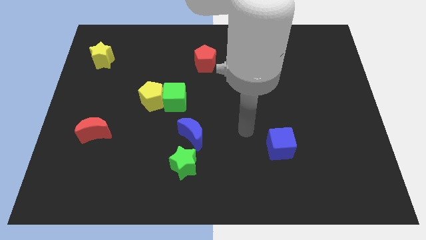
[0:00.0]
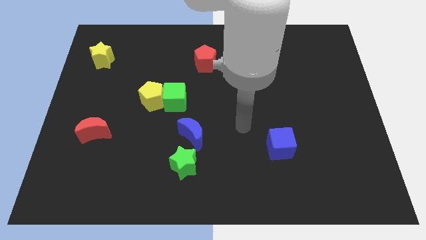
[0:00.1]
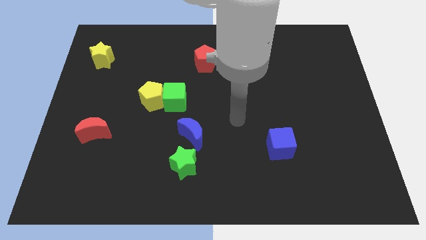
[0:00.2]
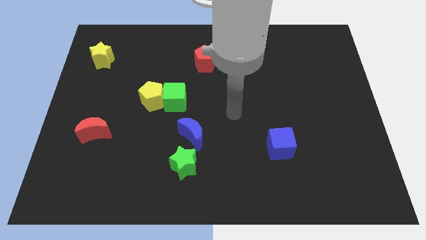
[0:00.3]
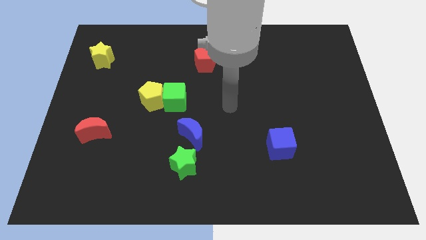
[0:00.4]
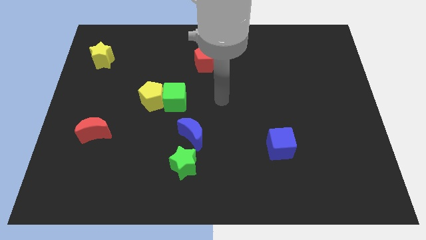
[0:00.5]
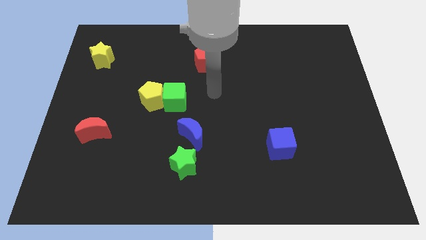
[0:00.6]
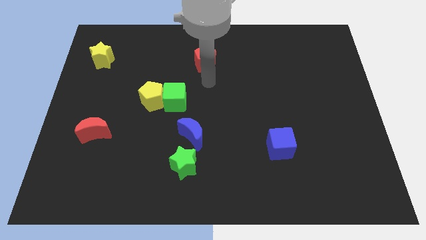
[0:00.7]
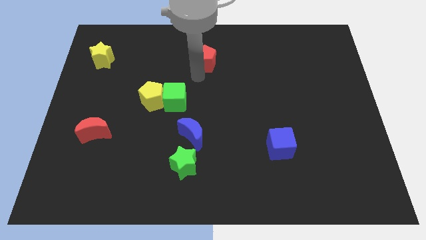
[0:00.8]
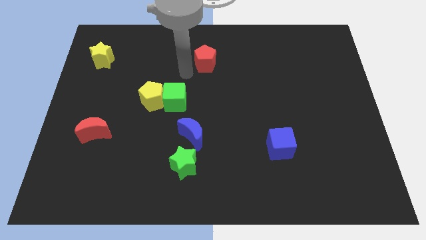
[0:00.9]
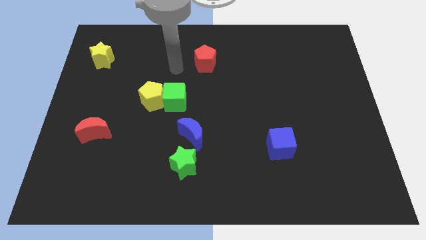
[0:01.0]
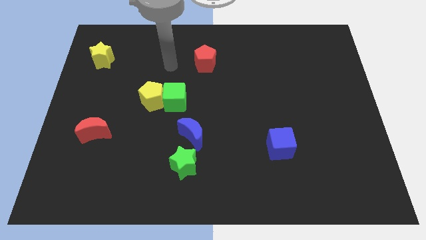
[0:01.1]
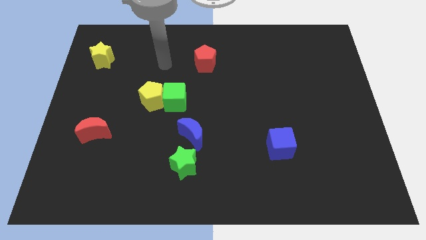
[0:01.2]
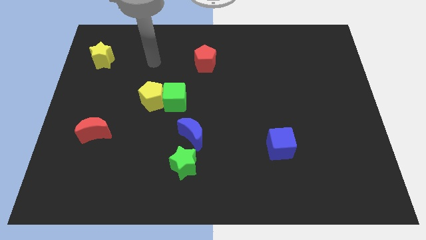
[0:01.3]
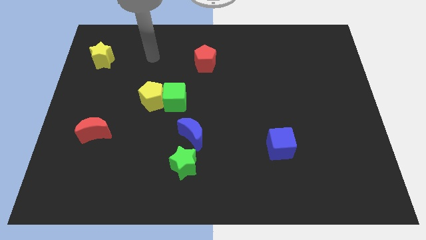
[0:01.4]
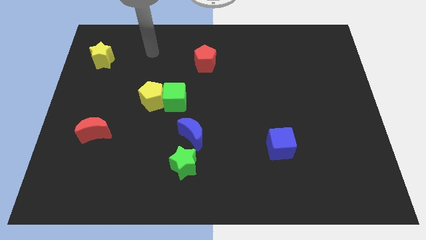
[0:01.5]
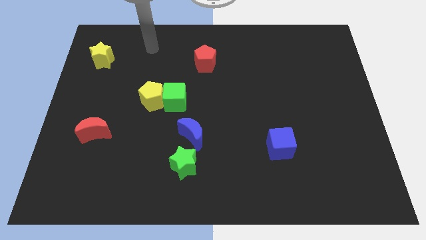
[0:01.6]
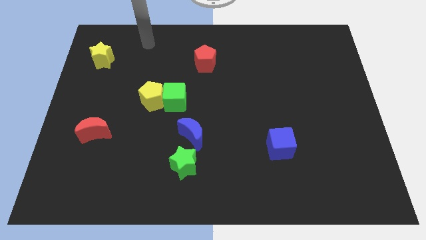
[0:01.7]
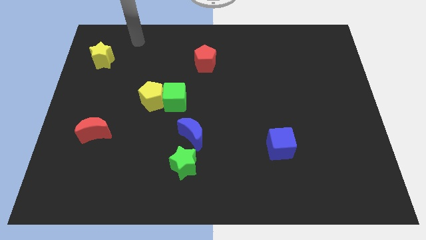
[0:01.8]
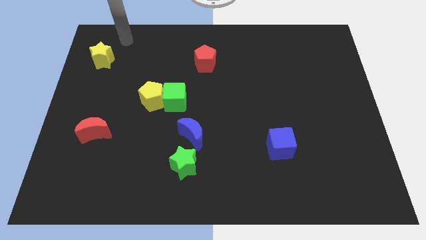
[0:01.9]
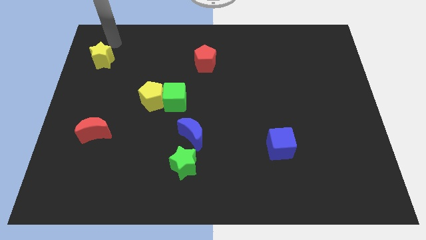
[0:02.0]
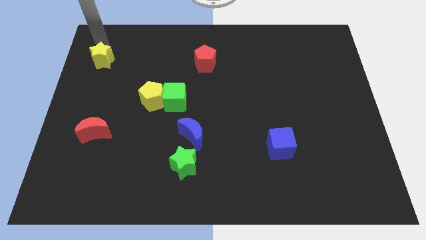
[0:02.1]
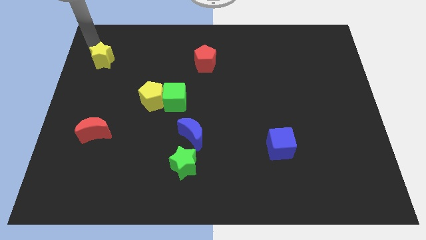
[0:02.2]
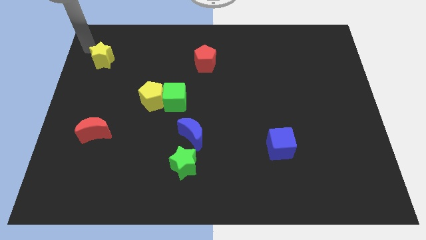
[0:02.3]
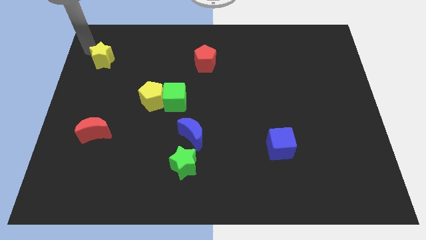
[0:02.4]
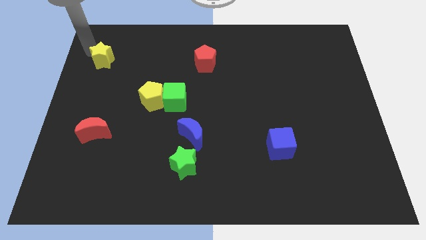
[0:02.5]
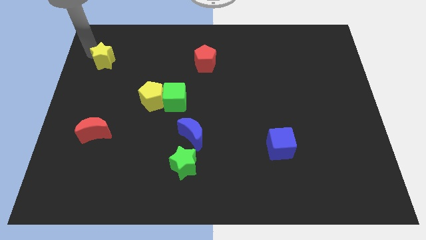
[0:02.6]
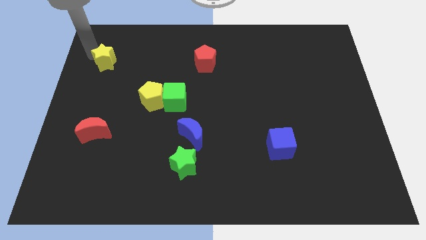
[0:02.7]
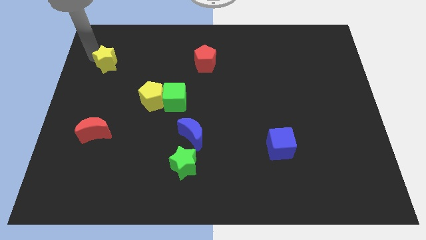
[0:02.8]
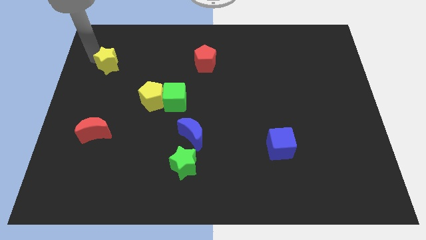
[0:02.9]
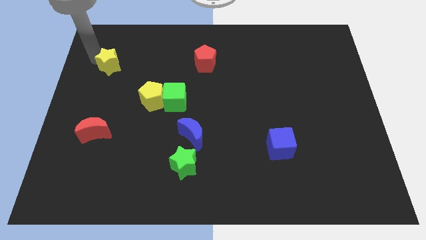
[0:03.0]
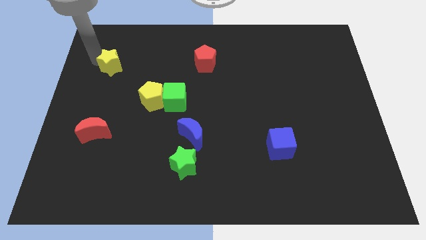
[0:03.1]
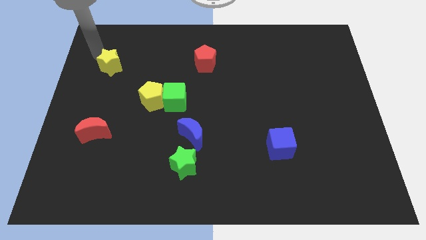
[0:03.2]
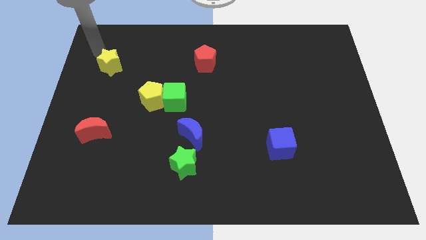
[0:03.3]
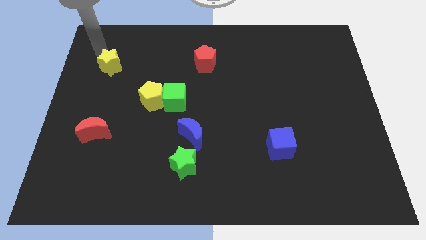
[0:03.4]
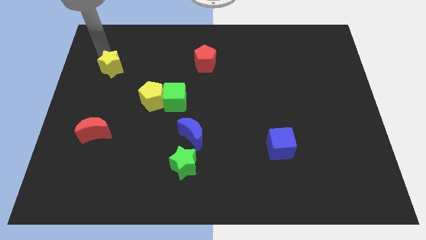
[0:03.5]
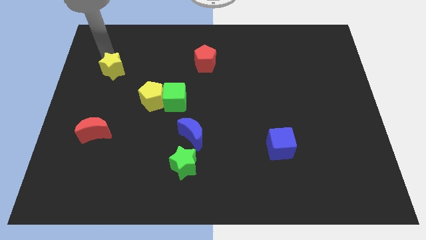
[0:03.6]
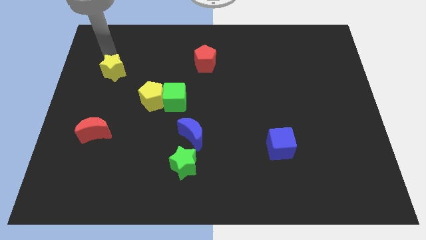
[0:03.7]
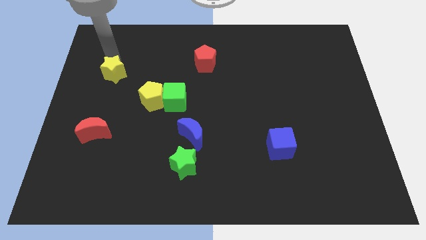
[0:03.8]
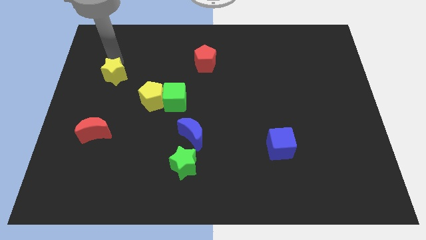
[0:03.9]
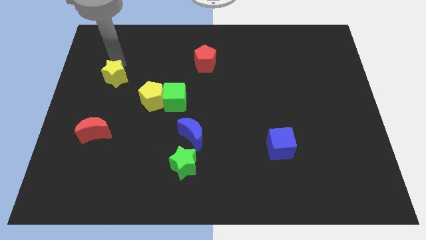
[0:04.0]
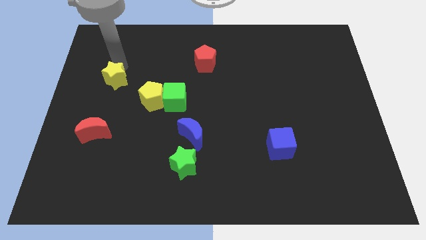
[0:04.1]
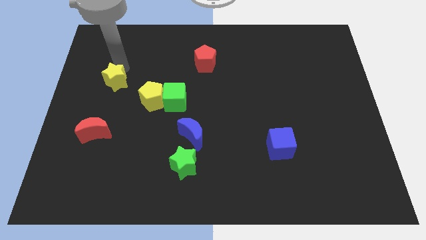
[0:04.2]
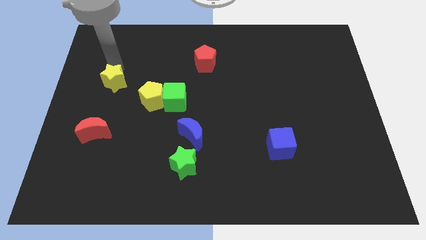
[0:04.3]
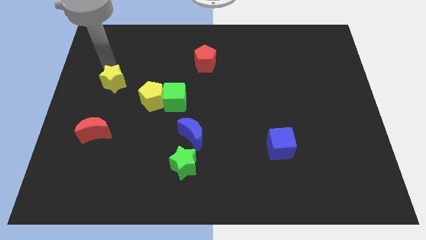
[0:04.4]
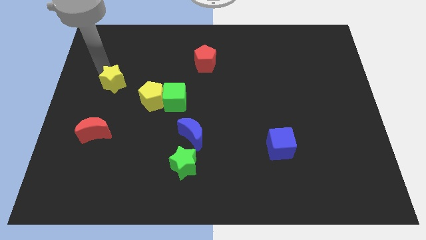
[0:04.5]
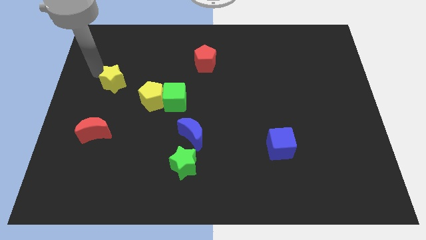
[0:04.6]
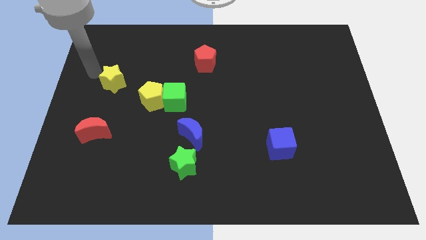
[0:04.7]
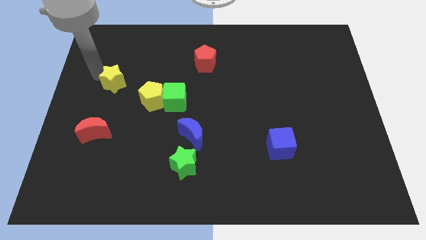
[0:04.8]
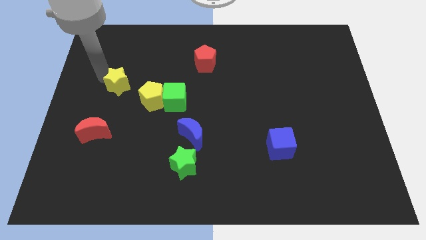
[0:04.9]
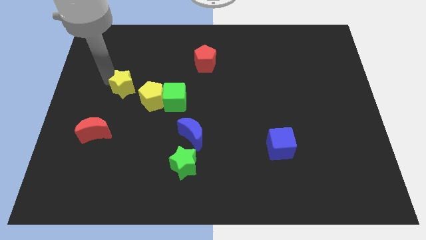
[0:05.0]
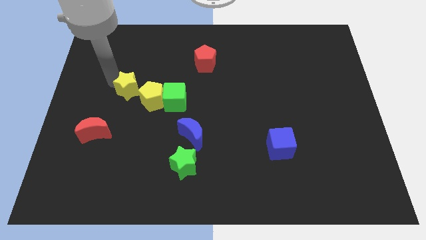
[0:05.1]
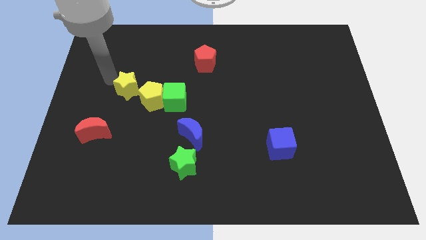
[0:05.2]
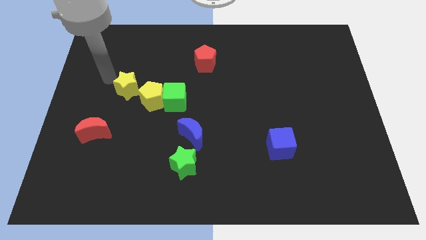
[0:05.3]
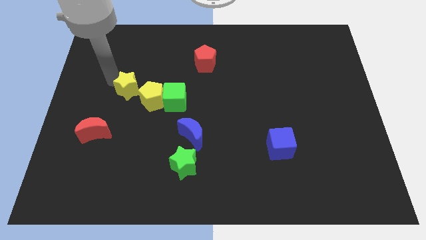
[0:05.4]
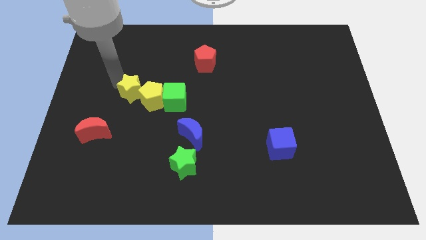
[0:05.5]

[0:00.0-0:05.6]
move the yellow star next to the yellow pentagon

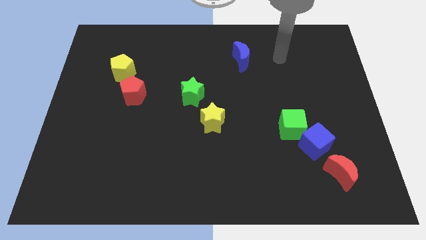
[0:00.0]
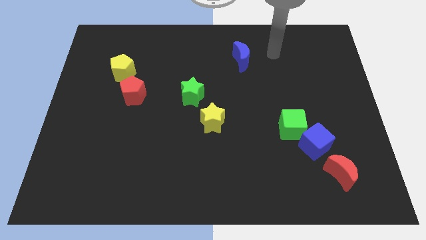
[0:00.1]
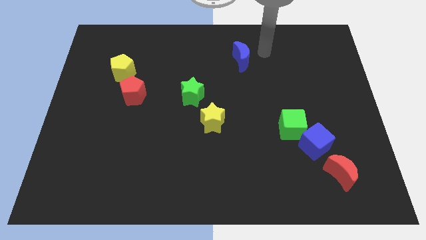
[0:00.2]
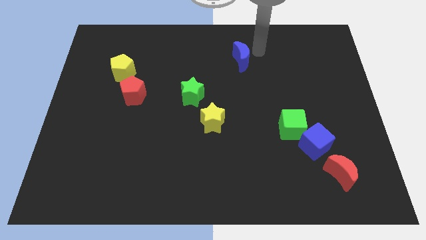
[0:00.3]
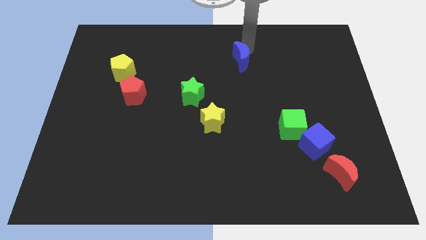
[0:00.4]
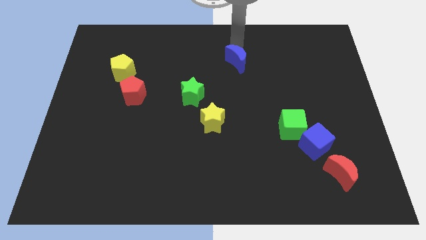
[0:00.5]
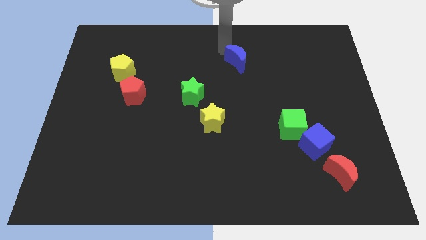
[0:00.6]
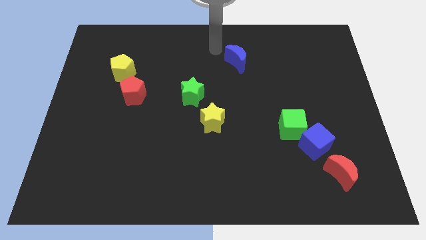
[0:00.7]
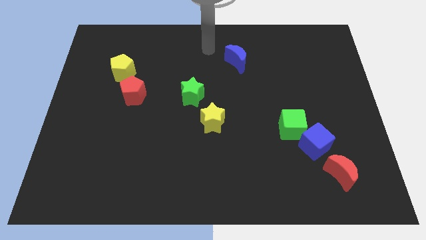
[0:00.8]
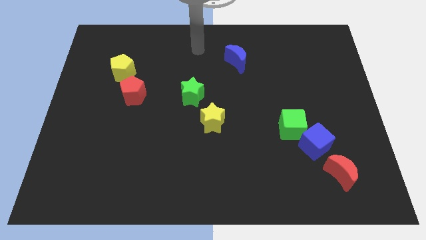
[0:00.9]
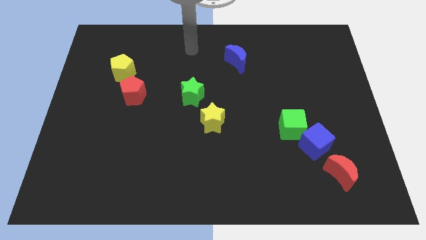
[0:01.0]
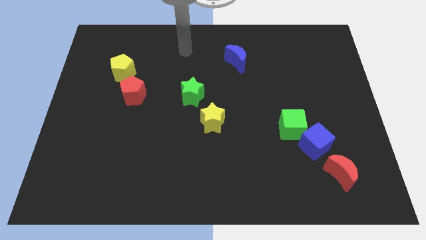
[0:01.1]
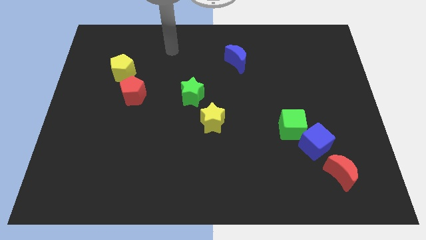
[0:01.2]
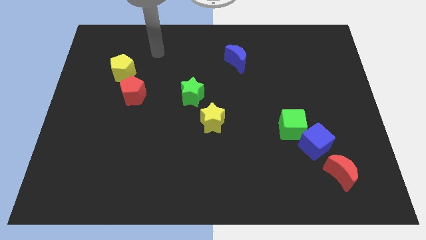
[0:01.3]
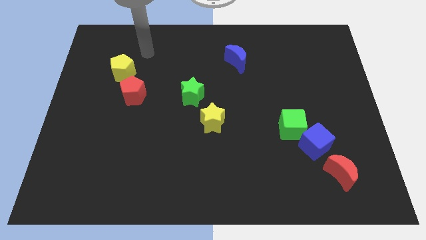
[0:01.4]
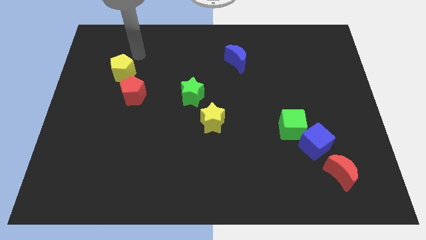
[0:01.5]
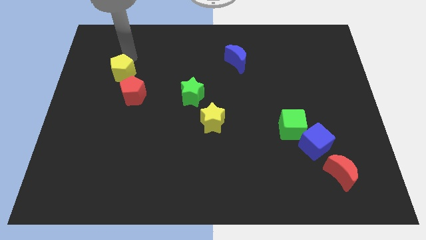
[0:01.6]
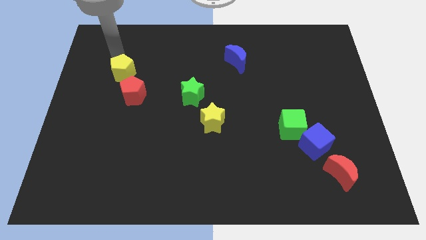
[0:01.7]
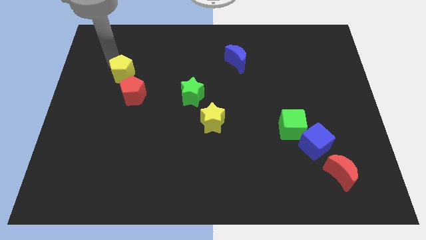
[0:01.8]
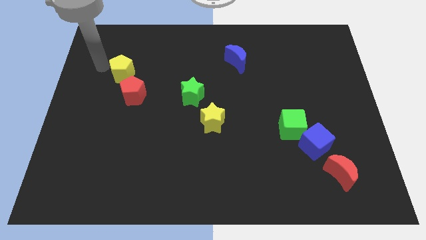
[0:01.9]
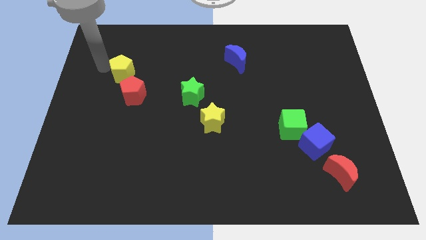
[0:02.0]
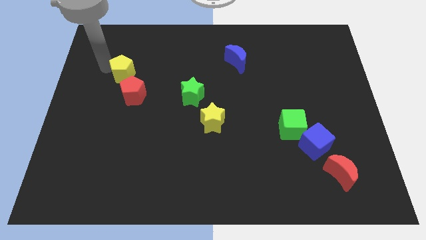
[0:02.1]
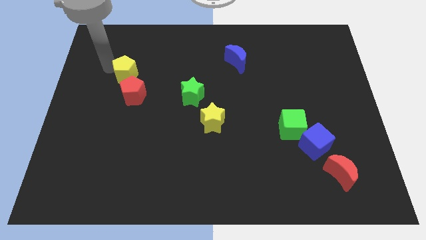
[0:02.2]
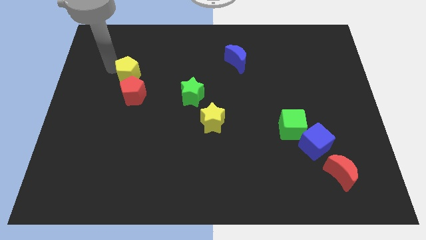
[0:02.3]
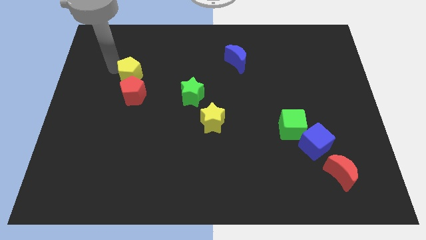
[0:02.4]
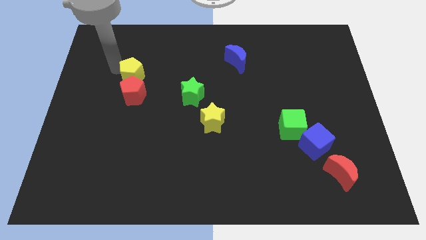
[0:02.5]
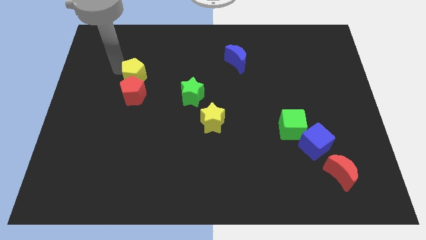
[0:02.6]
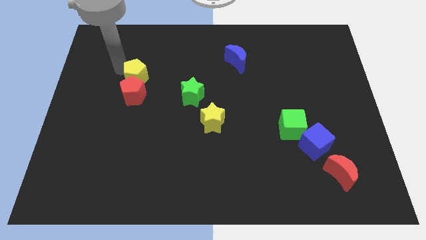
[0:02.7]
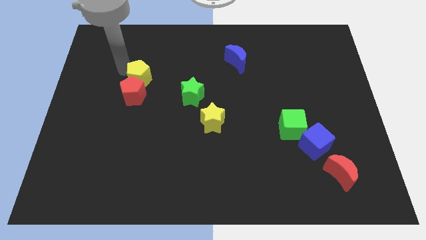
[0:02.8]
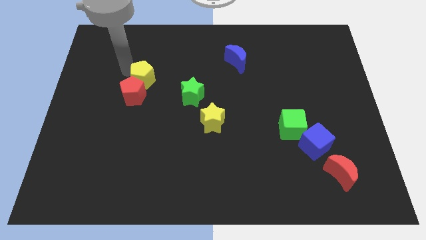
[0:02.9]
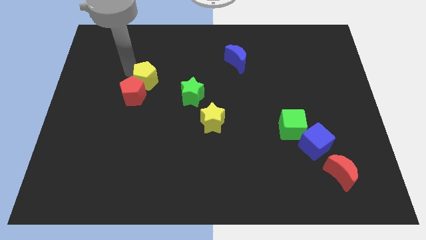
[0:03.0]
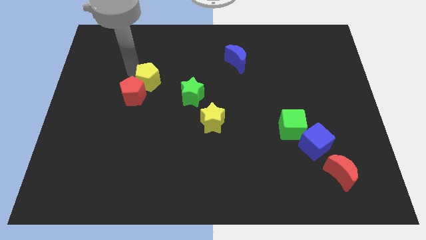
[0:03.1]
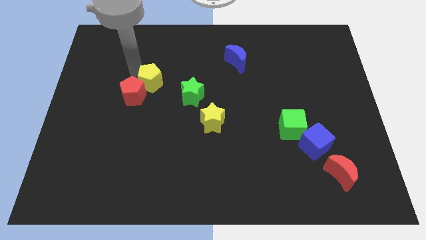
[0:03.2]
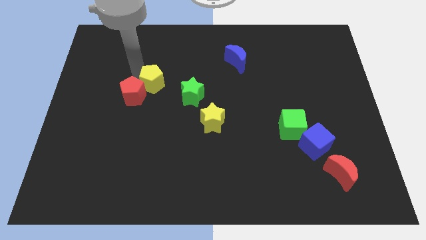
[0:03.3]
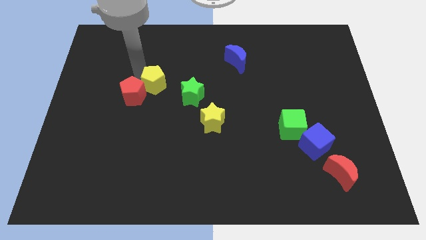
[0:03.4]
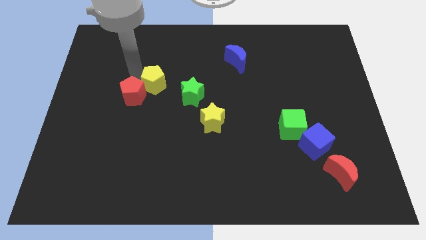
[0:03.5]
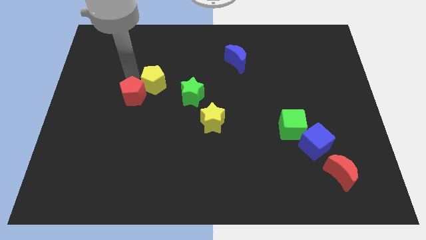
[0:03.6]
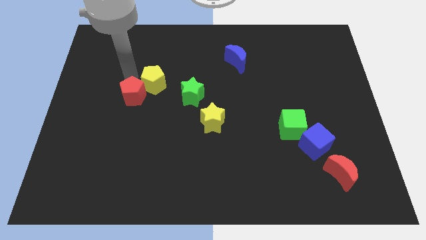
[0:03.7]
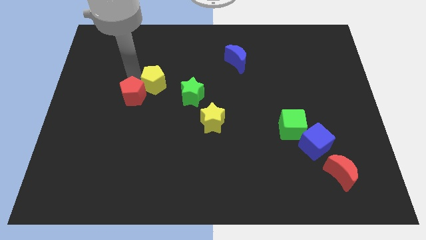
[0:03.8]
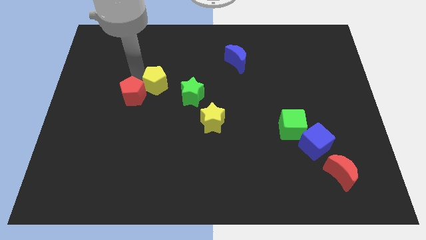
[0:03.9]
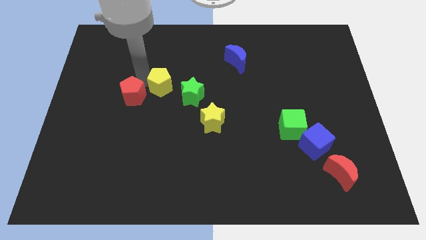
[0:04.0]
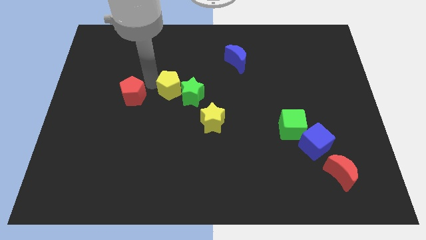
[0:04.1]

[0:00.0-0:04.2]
move the yellow pentagon to the green star
